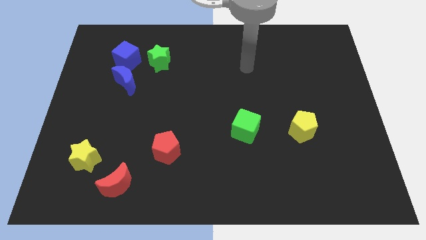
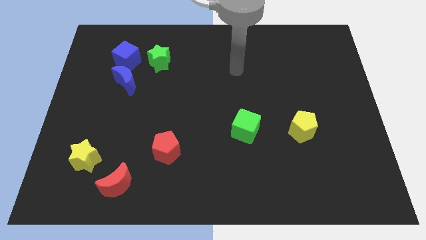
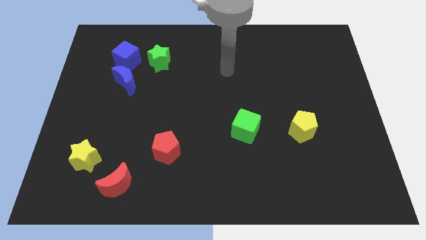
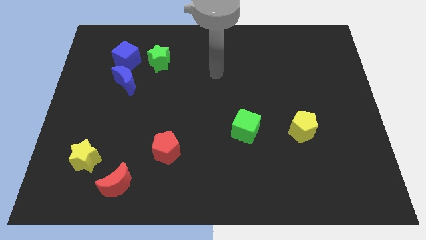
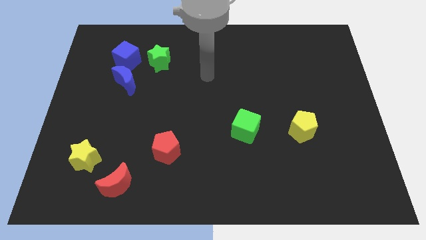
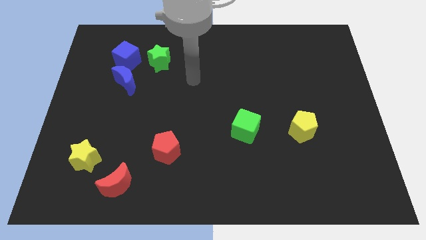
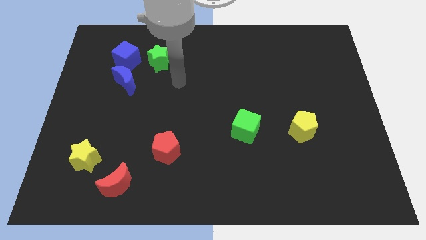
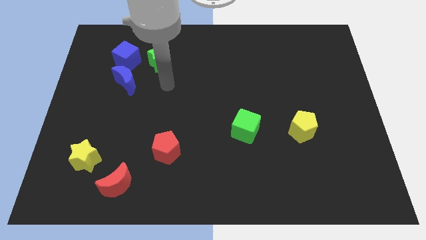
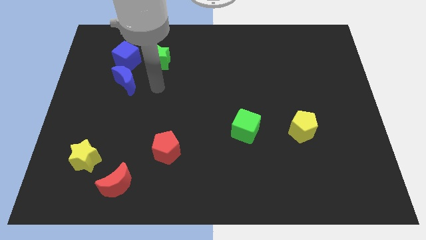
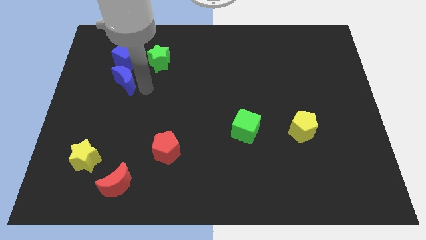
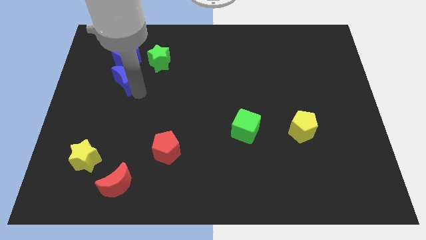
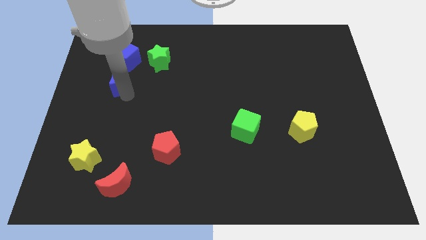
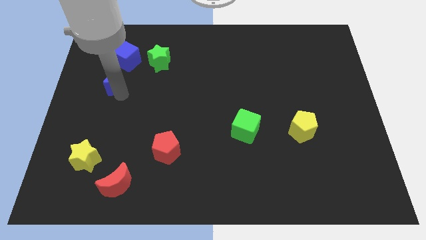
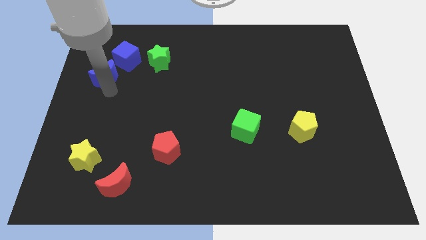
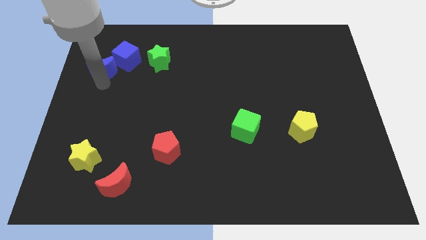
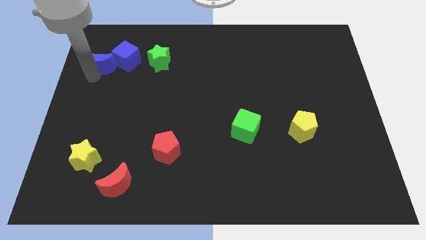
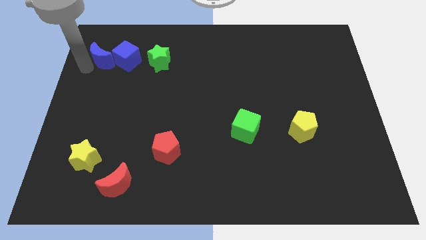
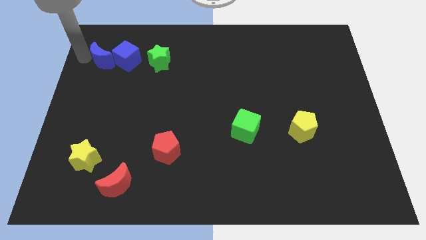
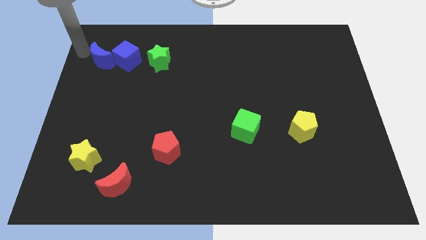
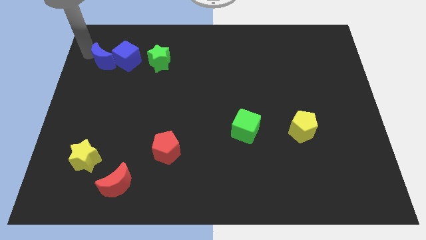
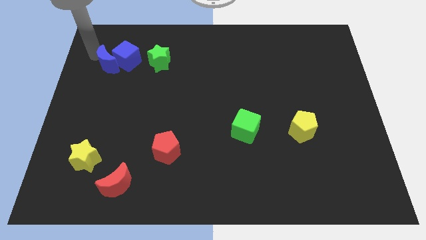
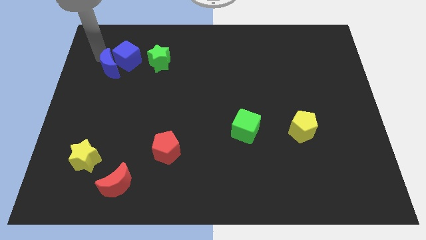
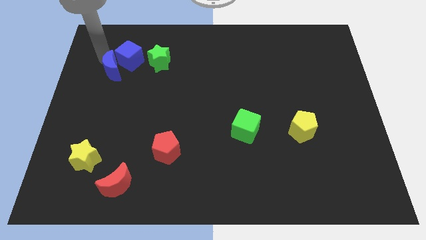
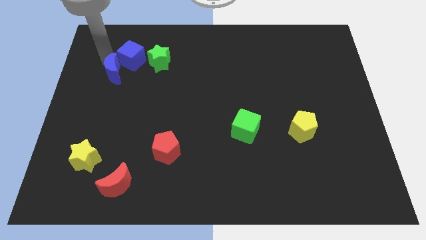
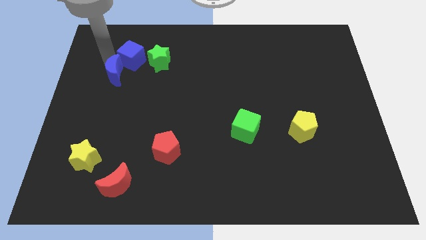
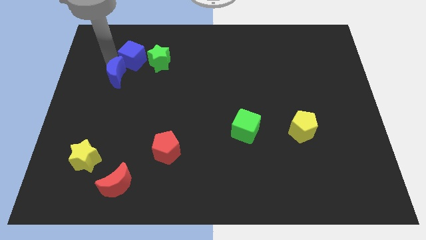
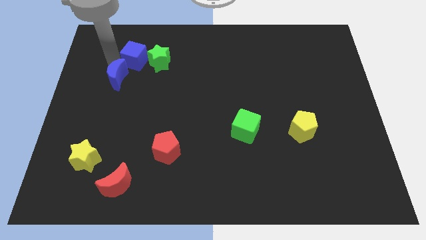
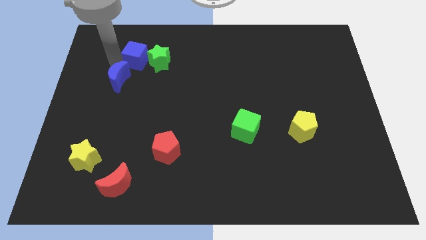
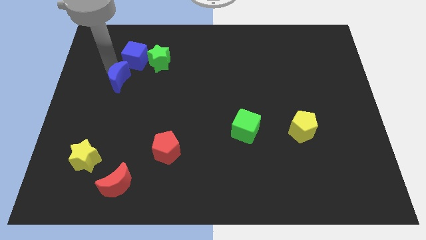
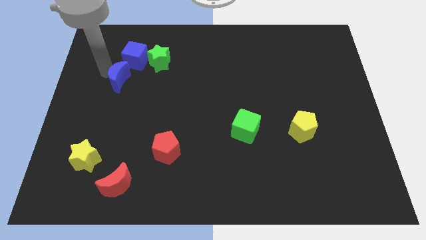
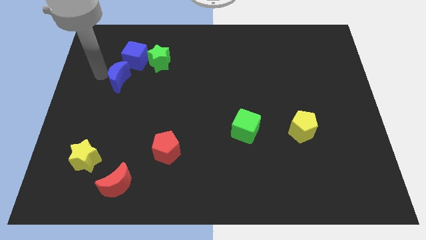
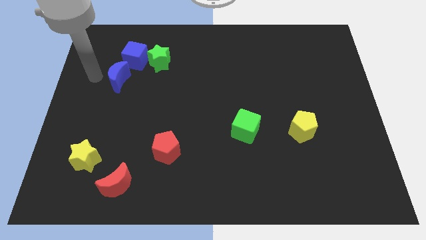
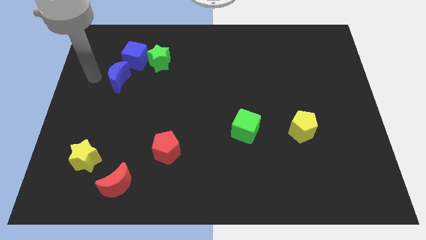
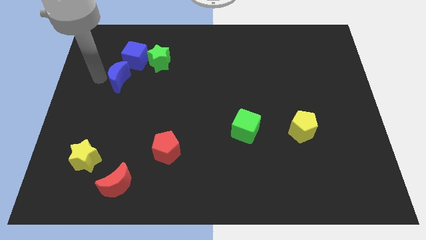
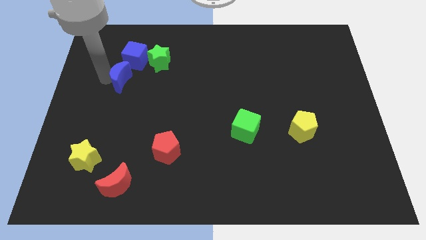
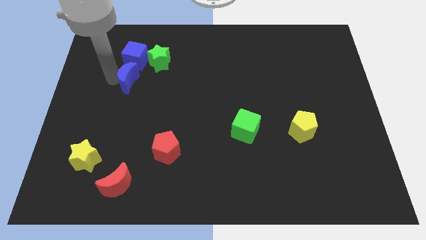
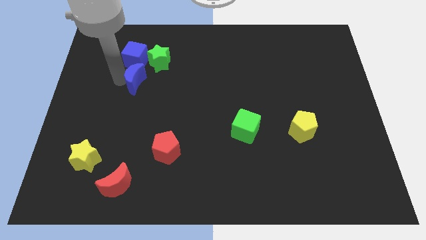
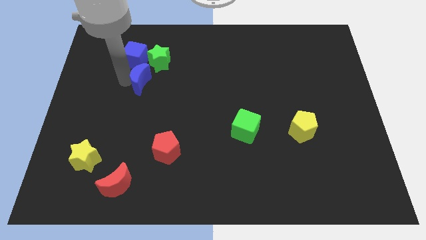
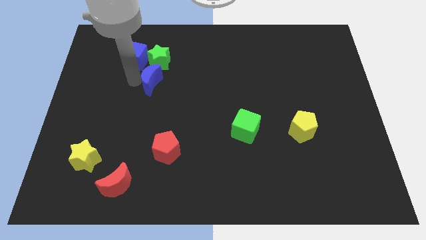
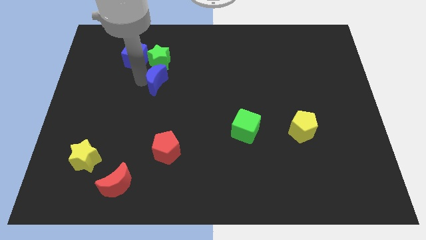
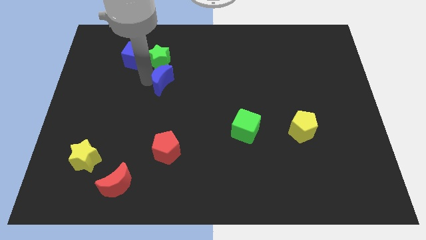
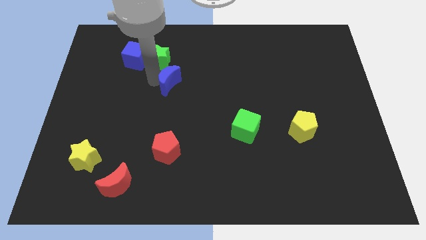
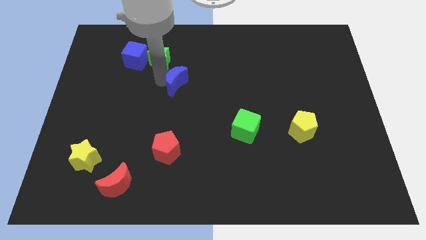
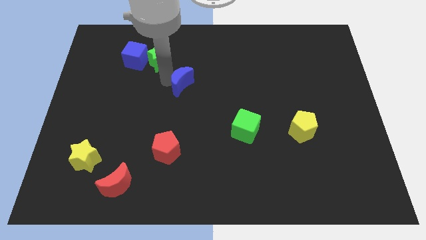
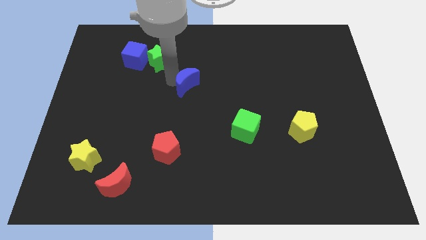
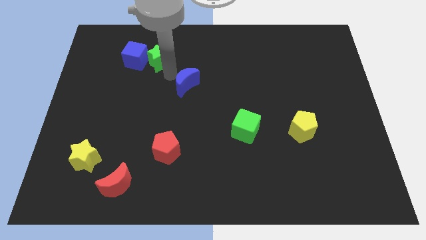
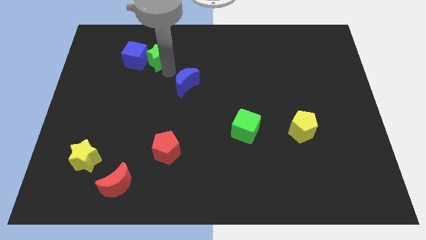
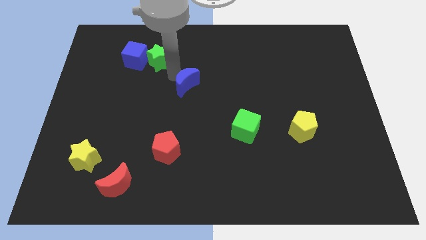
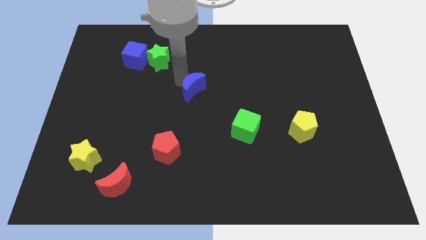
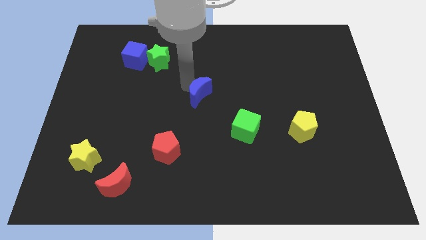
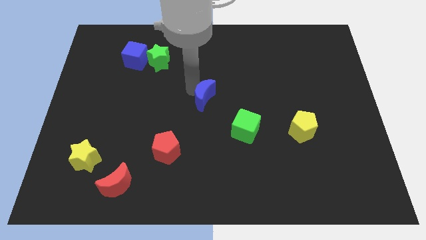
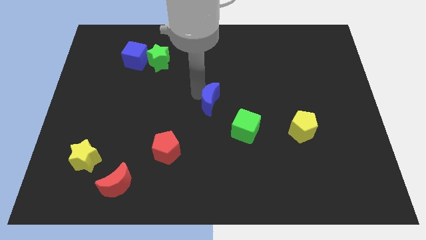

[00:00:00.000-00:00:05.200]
push the blue moon to the top left of the green cube

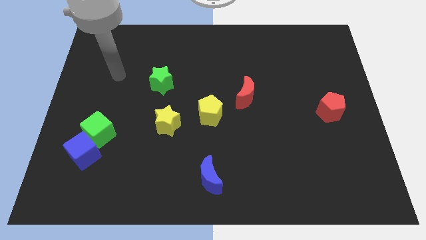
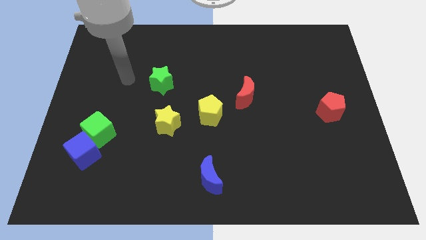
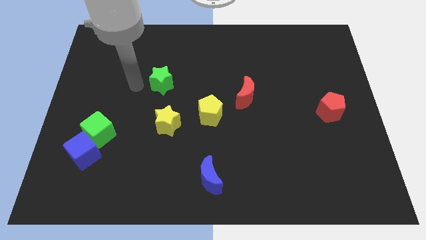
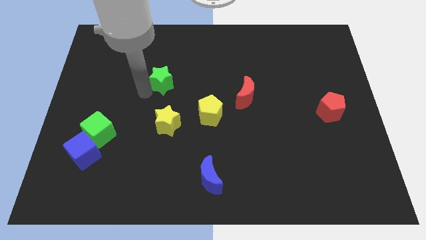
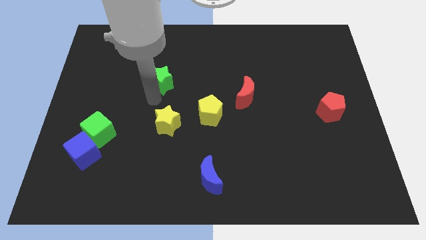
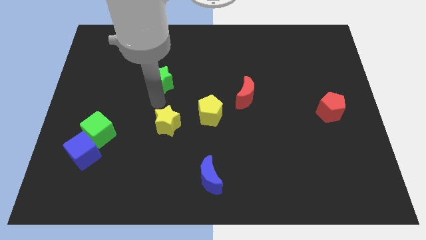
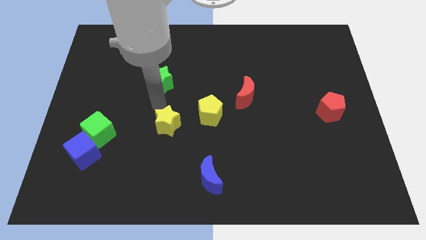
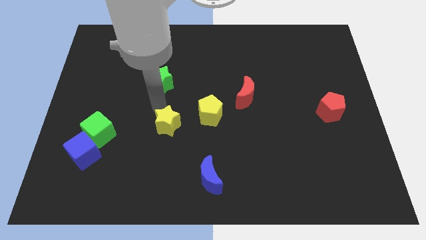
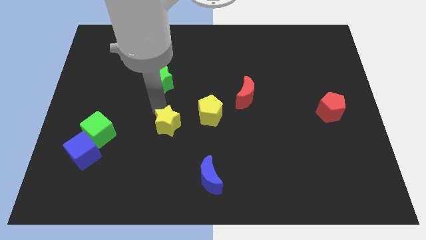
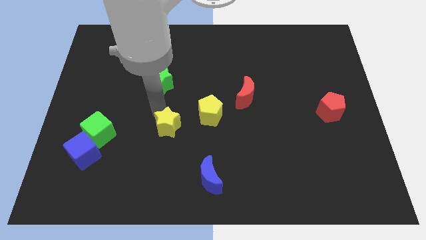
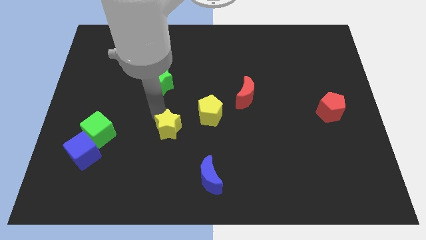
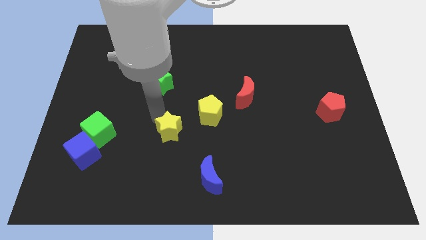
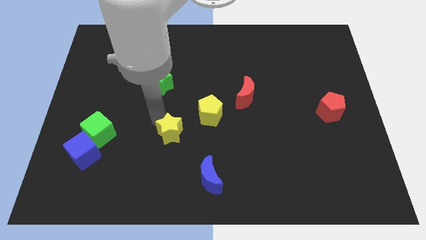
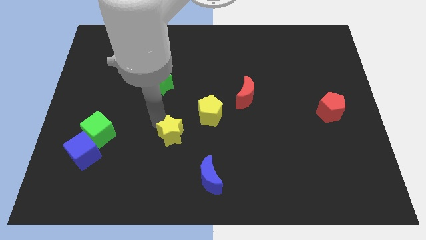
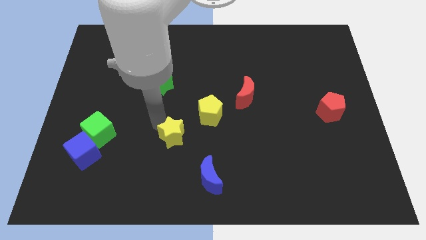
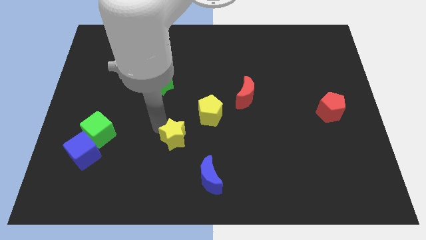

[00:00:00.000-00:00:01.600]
push the yellow star to the top left side of the blue moon
